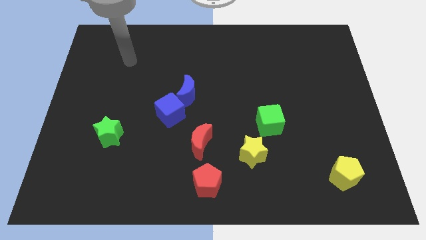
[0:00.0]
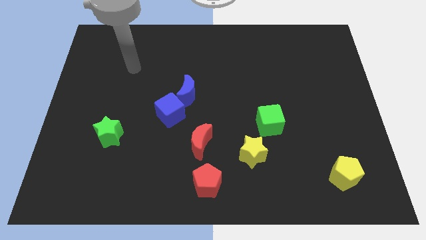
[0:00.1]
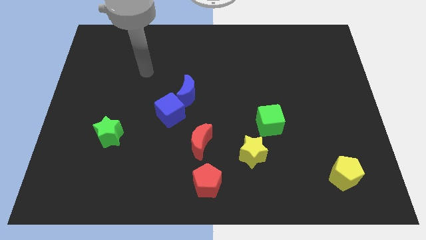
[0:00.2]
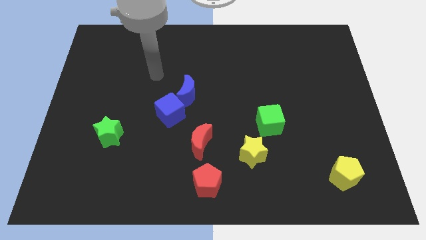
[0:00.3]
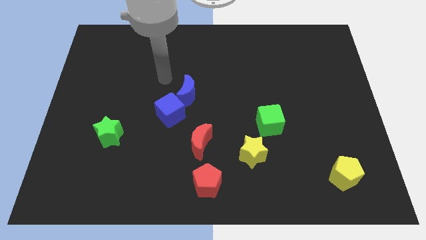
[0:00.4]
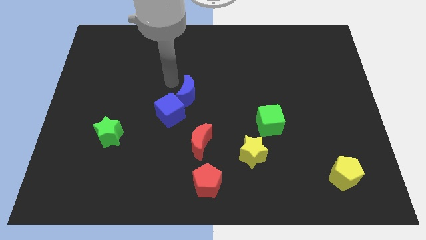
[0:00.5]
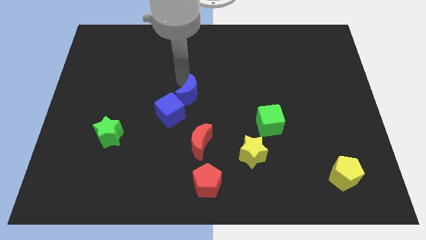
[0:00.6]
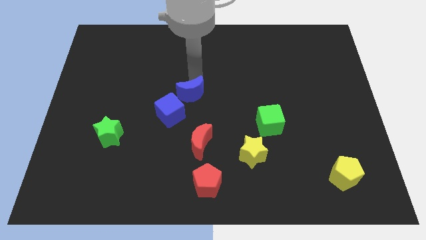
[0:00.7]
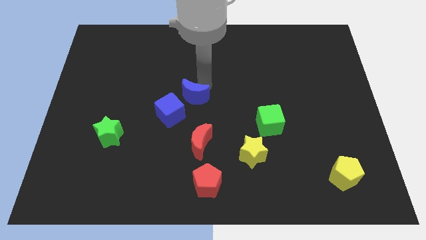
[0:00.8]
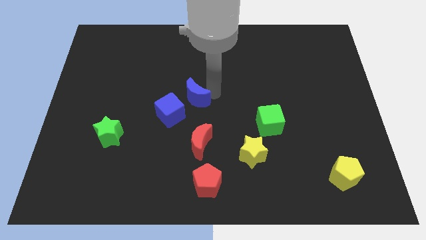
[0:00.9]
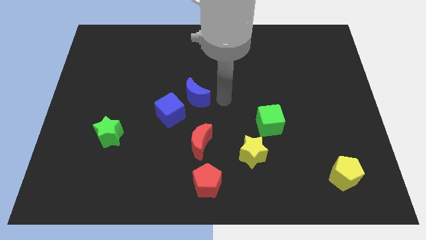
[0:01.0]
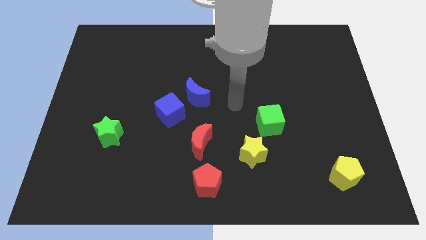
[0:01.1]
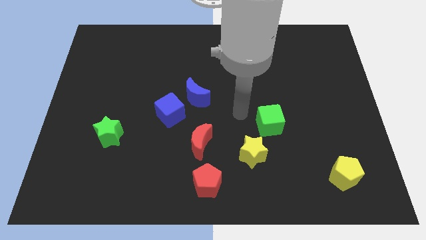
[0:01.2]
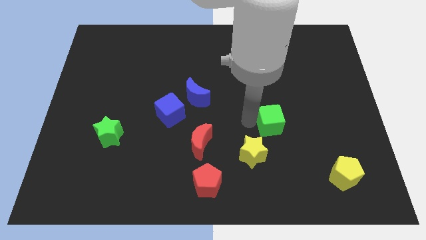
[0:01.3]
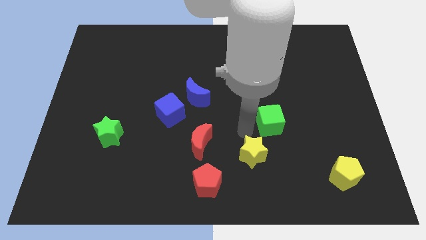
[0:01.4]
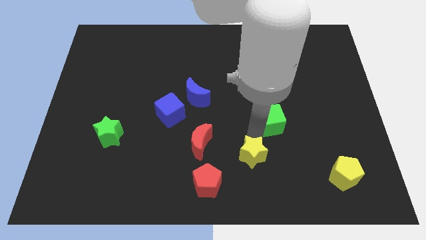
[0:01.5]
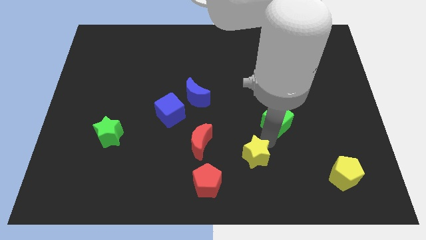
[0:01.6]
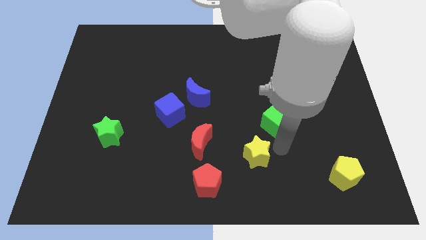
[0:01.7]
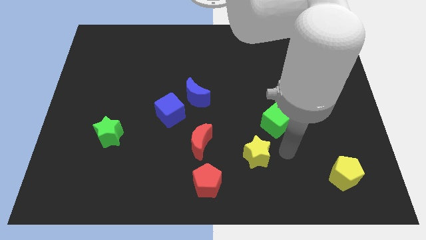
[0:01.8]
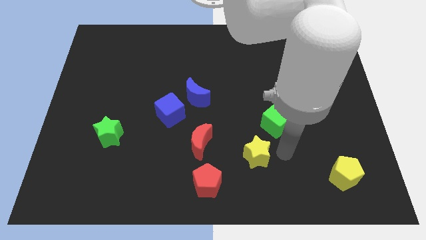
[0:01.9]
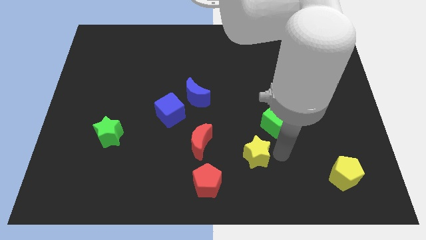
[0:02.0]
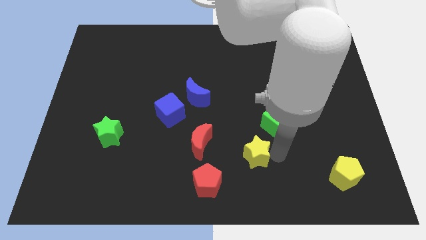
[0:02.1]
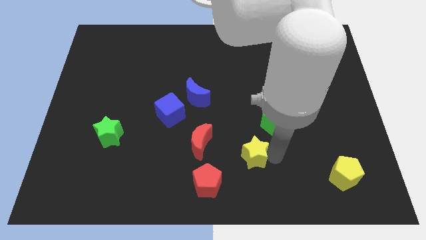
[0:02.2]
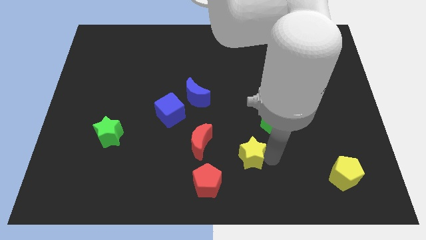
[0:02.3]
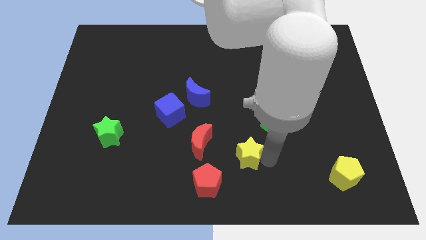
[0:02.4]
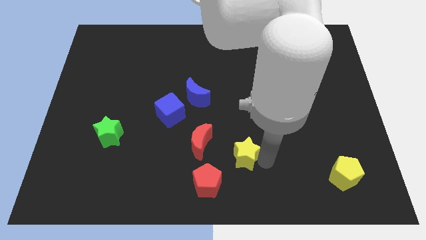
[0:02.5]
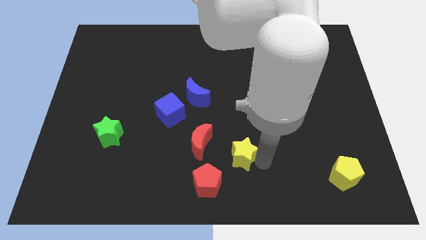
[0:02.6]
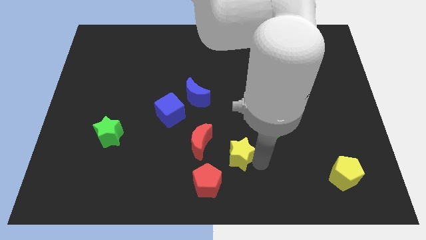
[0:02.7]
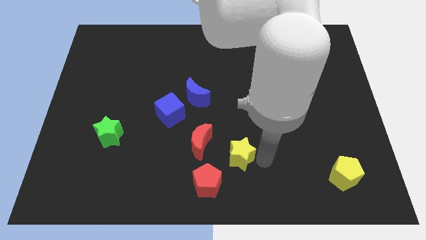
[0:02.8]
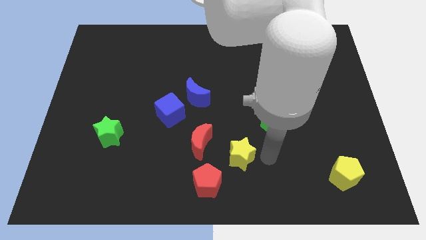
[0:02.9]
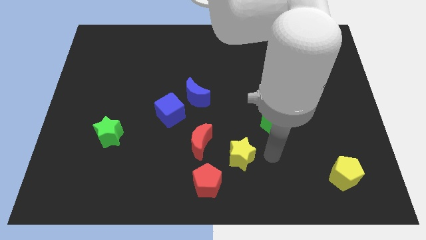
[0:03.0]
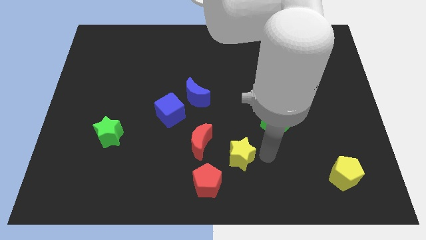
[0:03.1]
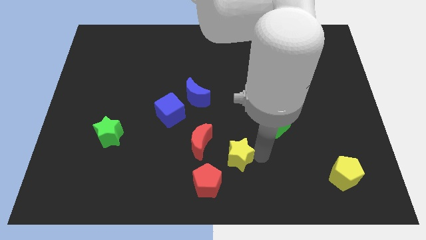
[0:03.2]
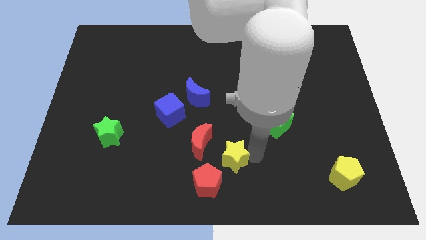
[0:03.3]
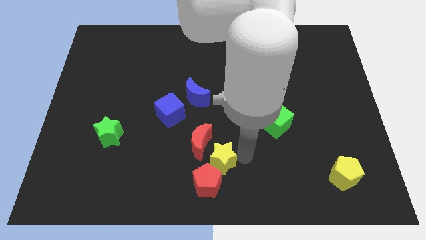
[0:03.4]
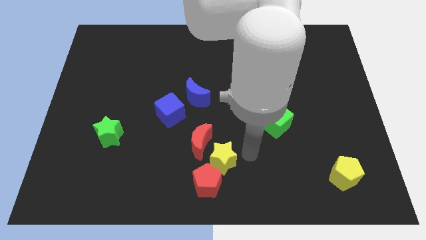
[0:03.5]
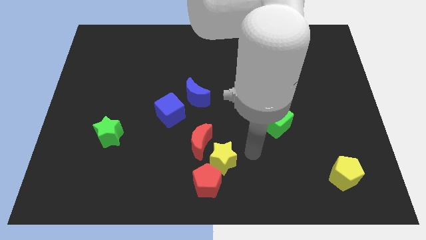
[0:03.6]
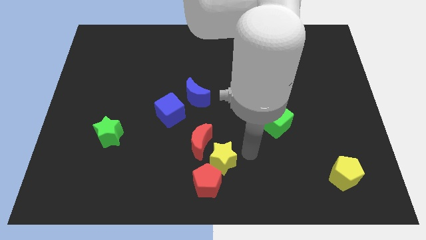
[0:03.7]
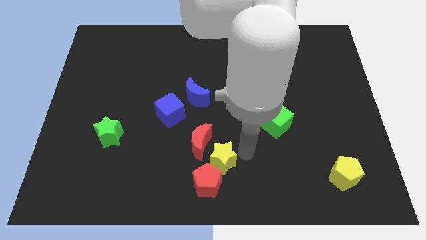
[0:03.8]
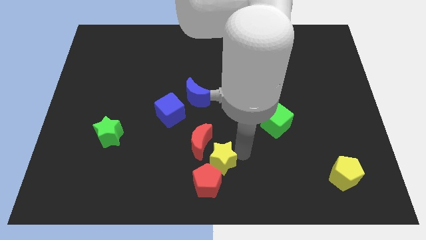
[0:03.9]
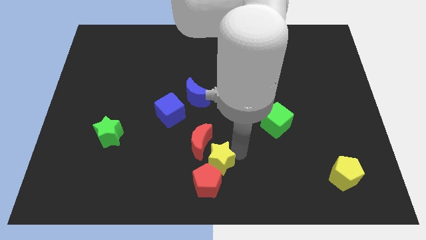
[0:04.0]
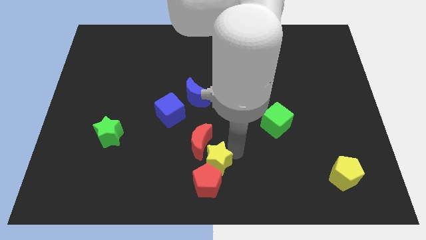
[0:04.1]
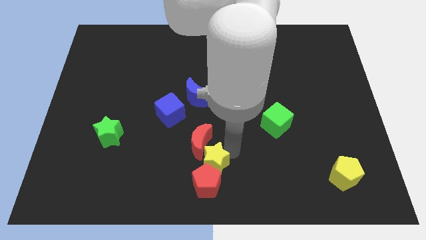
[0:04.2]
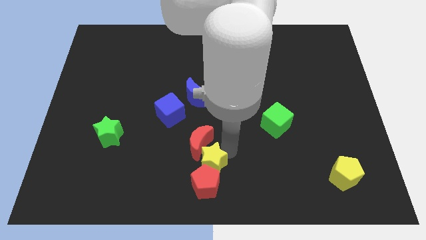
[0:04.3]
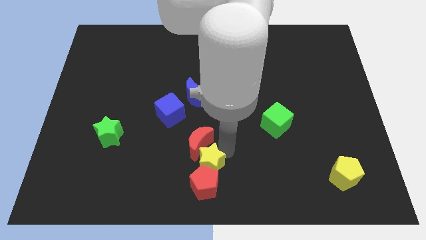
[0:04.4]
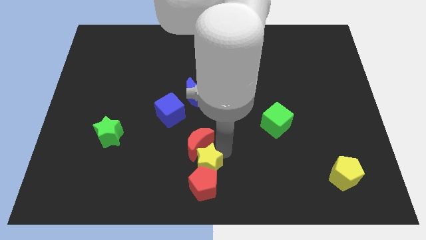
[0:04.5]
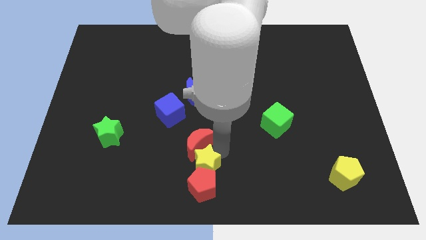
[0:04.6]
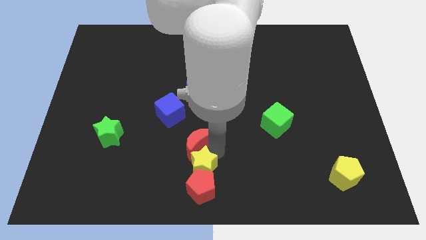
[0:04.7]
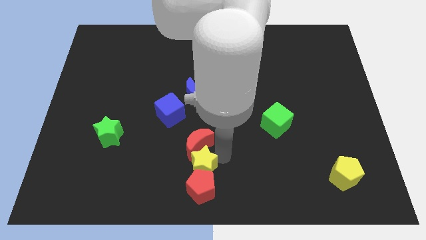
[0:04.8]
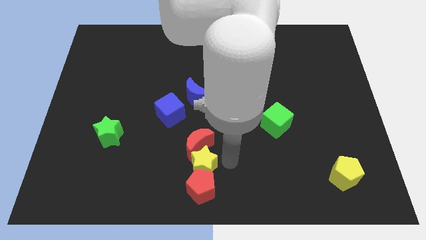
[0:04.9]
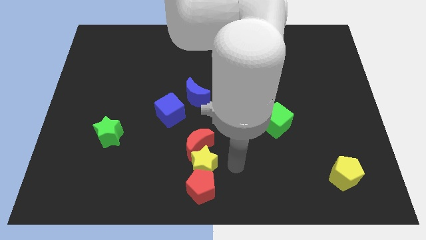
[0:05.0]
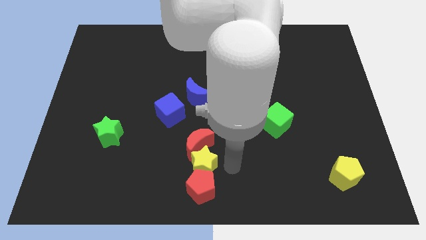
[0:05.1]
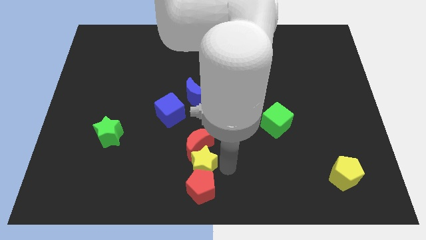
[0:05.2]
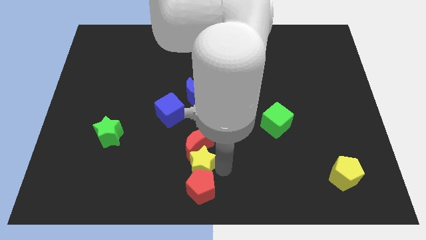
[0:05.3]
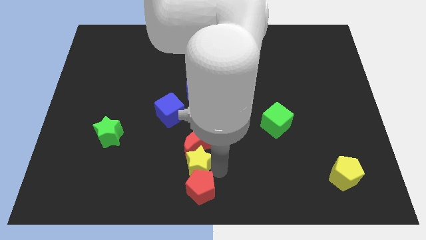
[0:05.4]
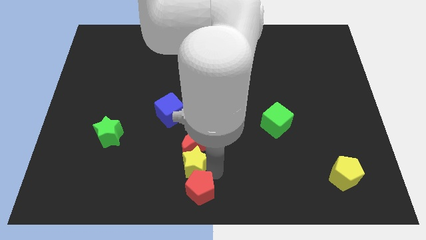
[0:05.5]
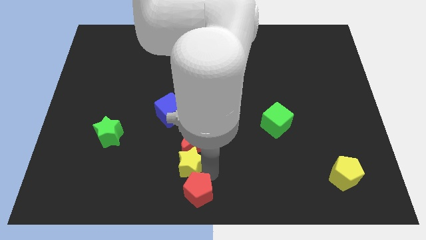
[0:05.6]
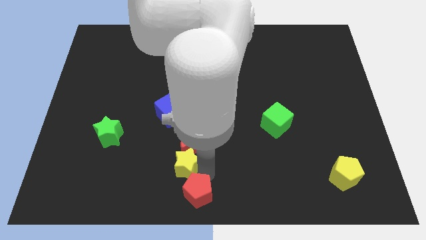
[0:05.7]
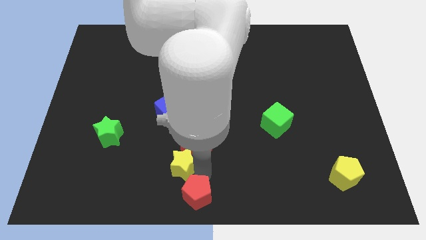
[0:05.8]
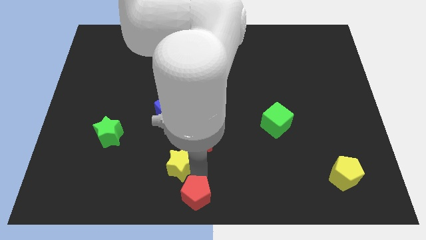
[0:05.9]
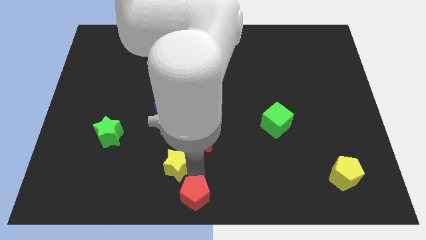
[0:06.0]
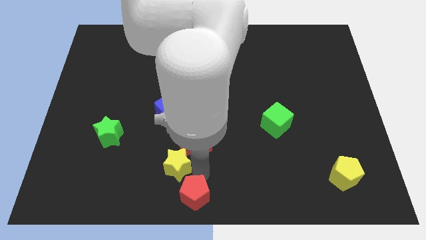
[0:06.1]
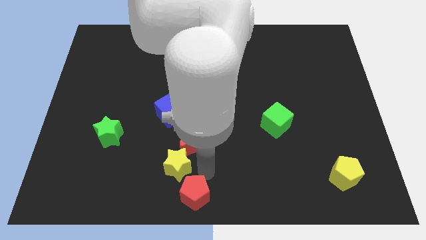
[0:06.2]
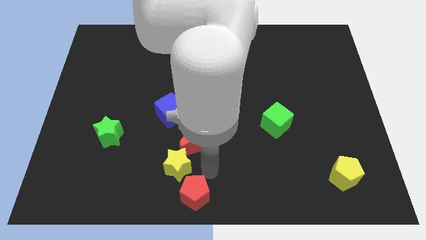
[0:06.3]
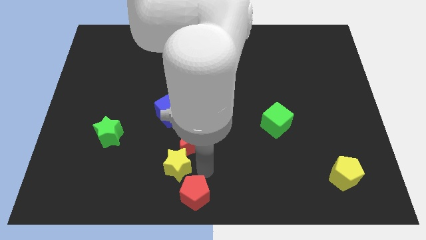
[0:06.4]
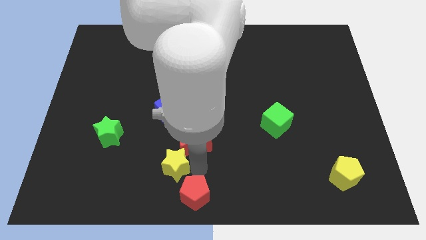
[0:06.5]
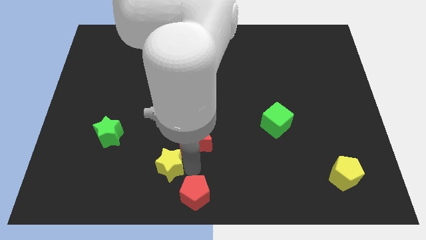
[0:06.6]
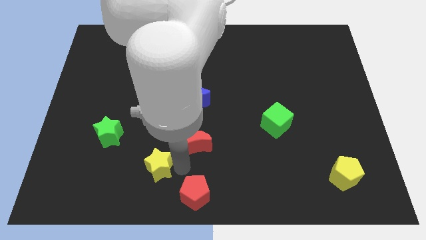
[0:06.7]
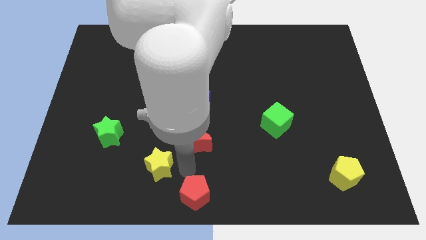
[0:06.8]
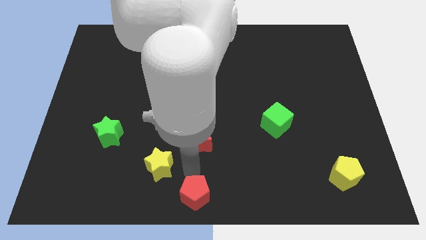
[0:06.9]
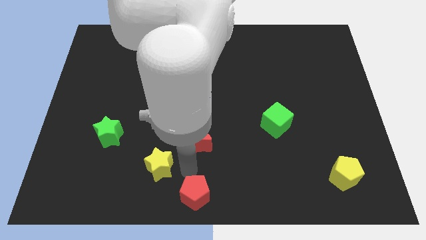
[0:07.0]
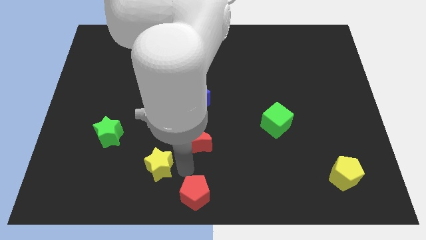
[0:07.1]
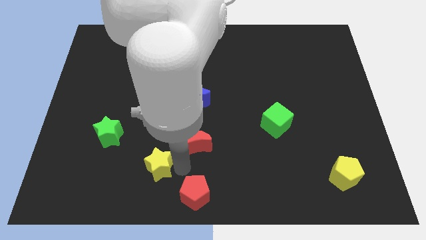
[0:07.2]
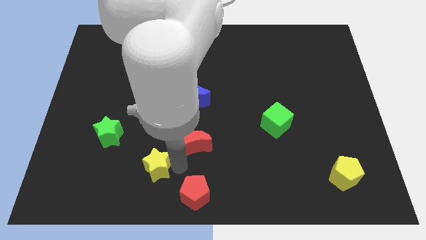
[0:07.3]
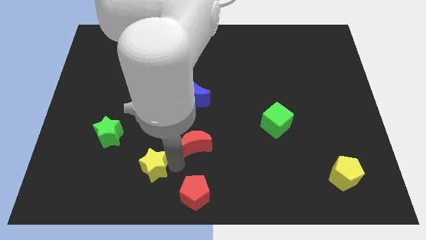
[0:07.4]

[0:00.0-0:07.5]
push the yellow star to the left

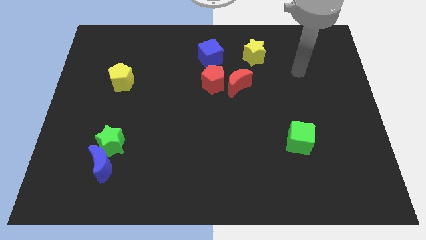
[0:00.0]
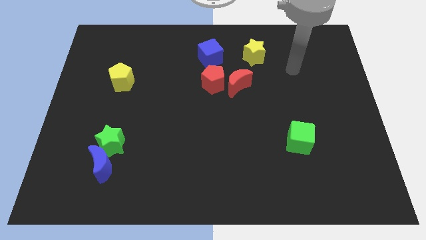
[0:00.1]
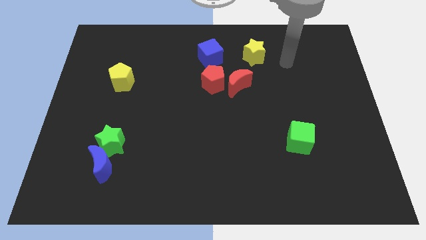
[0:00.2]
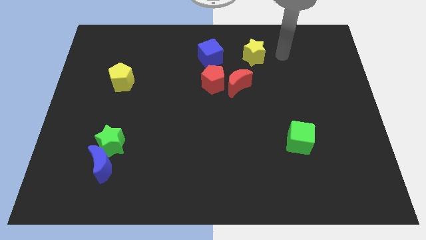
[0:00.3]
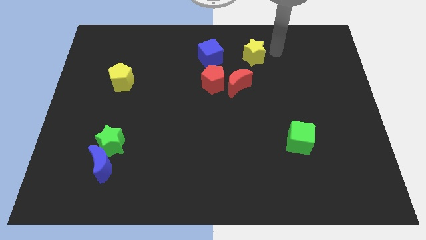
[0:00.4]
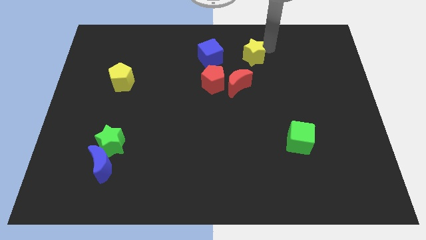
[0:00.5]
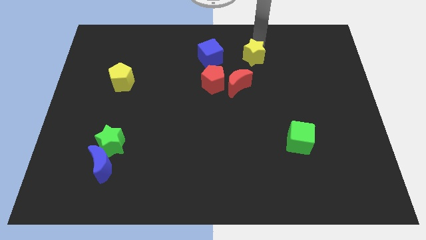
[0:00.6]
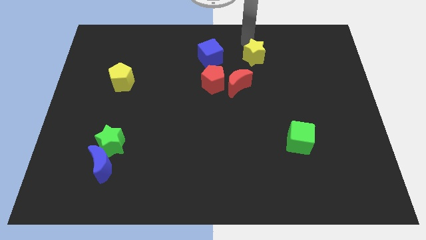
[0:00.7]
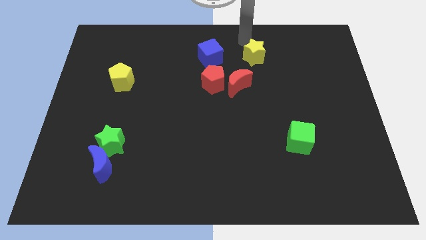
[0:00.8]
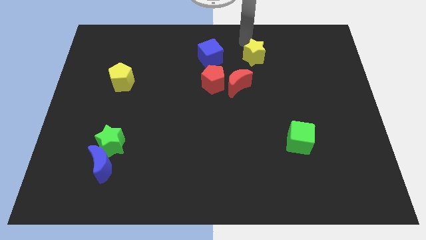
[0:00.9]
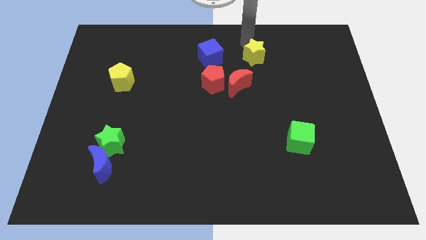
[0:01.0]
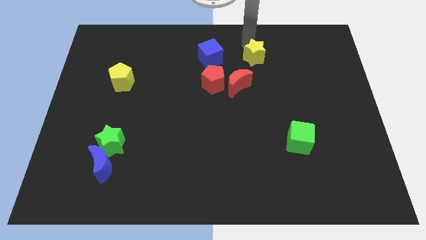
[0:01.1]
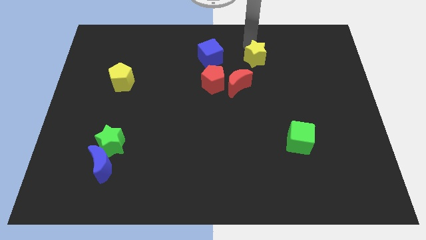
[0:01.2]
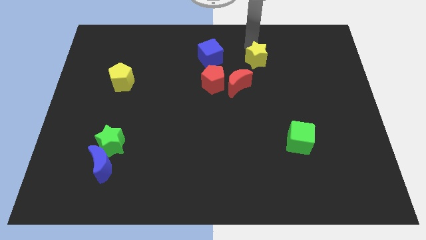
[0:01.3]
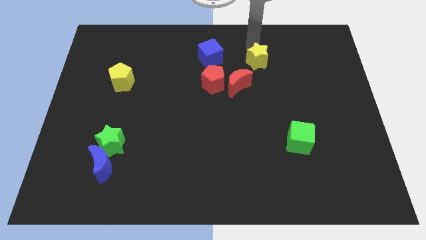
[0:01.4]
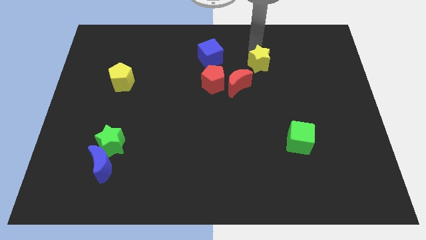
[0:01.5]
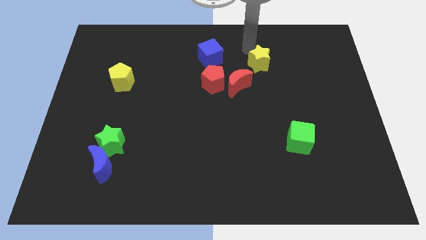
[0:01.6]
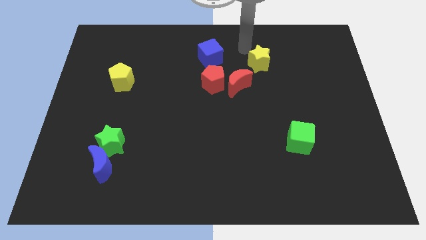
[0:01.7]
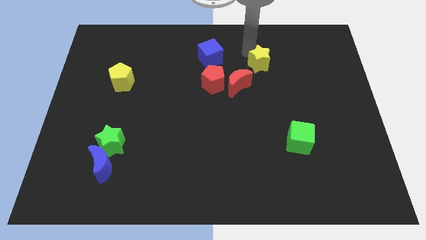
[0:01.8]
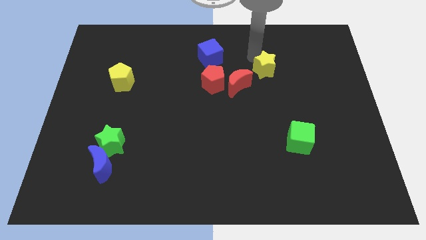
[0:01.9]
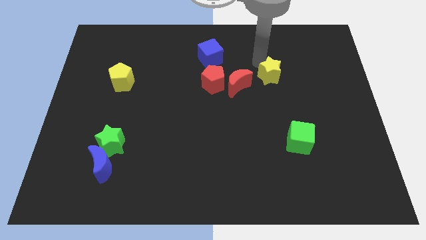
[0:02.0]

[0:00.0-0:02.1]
push the yellow star diagonally downwards and to the right a little
